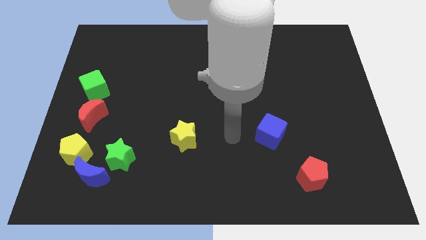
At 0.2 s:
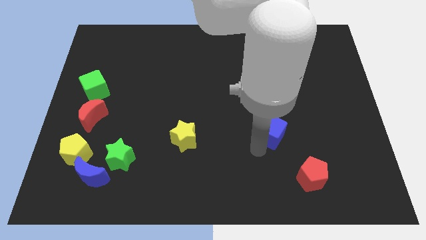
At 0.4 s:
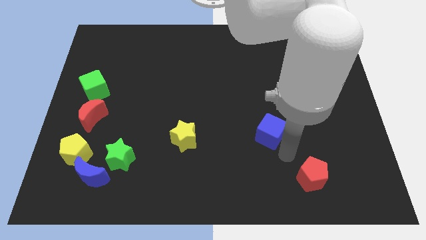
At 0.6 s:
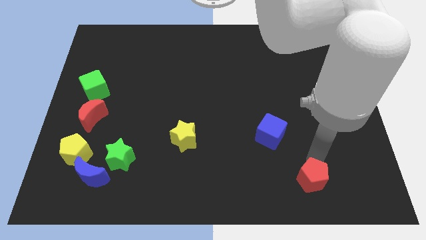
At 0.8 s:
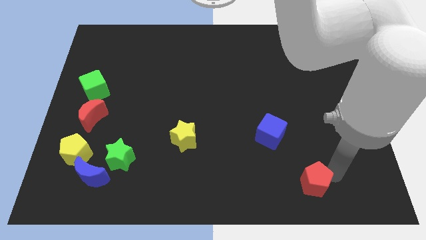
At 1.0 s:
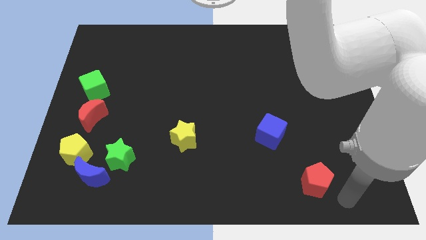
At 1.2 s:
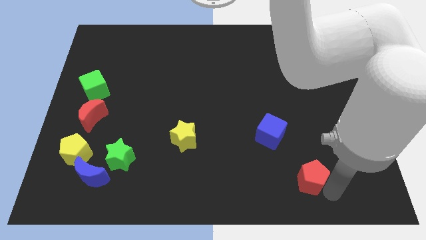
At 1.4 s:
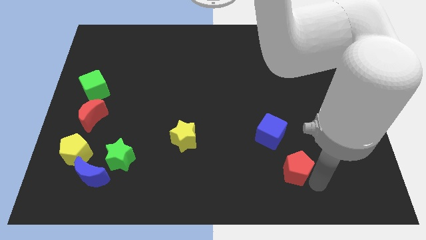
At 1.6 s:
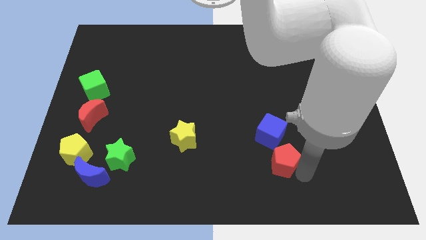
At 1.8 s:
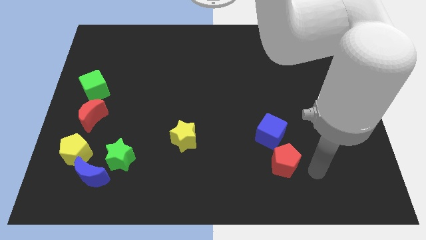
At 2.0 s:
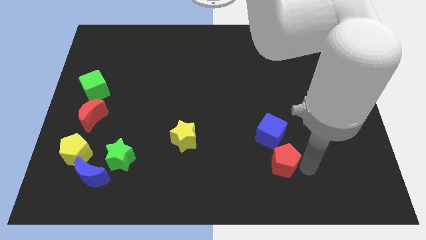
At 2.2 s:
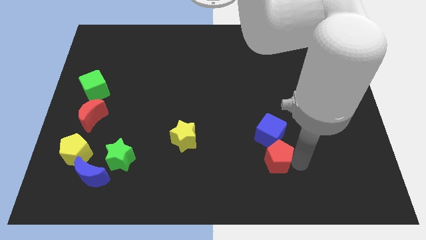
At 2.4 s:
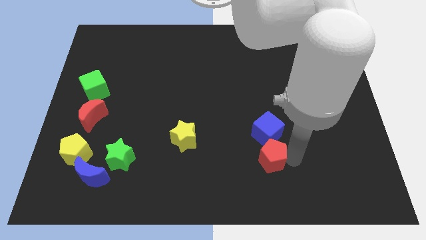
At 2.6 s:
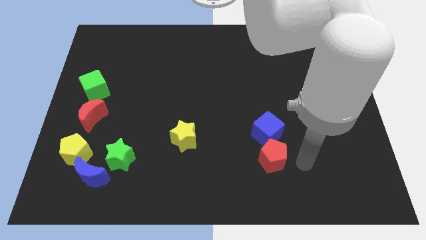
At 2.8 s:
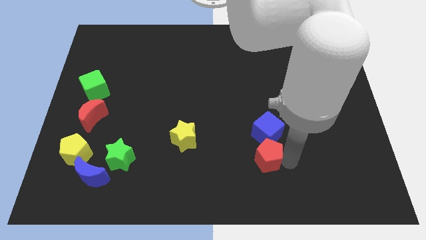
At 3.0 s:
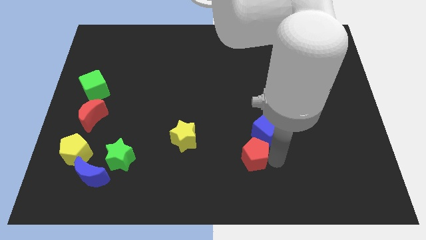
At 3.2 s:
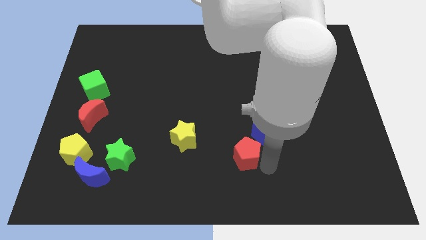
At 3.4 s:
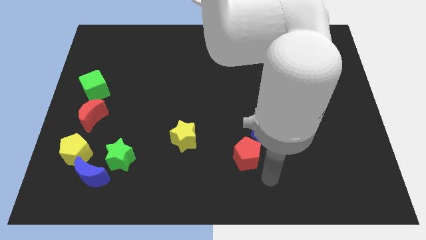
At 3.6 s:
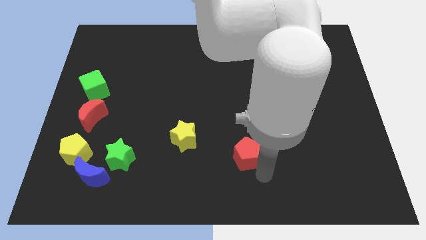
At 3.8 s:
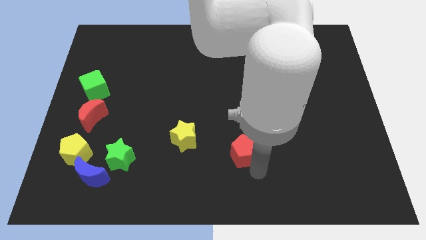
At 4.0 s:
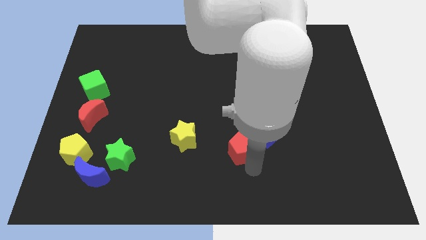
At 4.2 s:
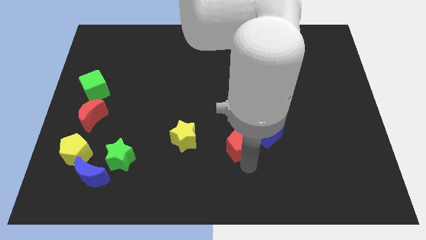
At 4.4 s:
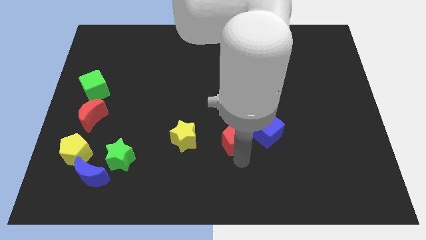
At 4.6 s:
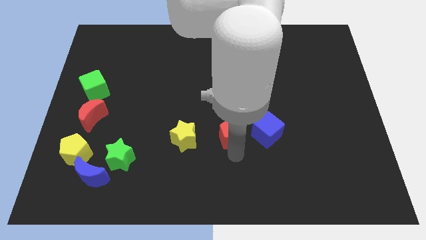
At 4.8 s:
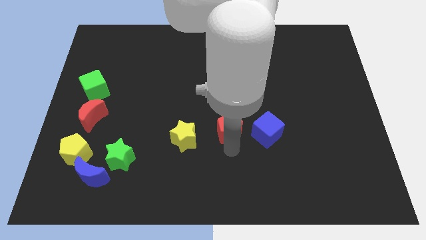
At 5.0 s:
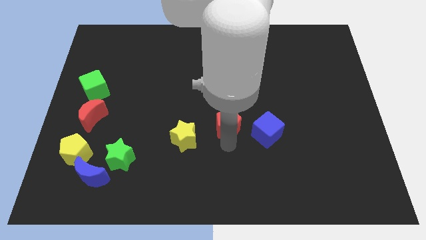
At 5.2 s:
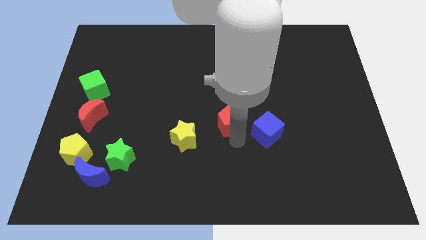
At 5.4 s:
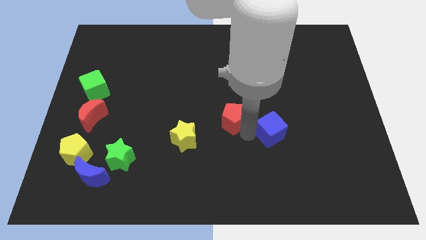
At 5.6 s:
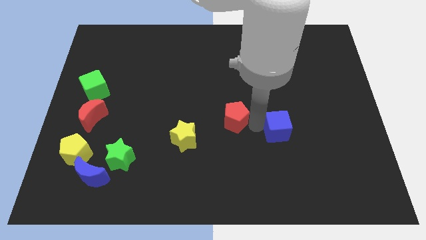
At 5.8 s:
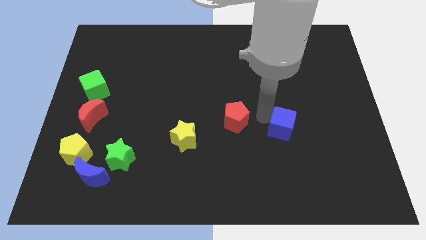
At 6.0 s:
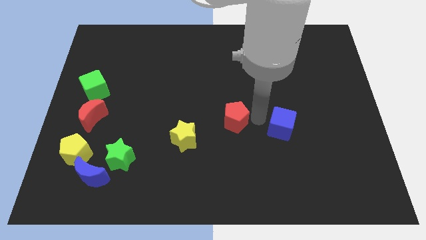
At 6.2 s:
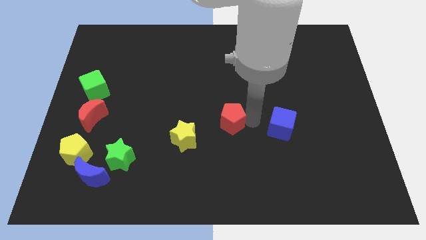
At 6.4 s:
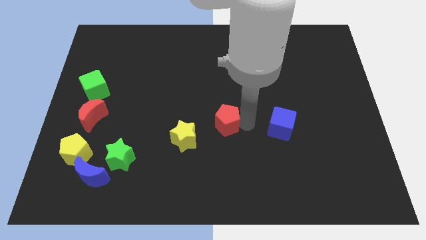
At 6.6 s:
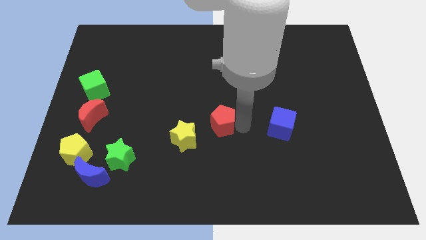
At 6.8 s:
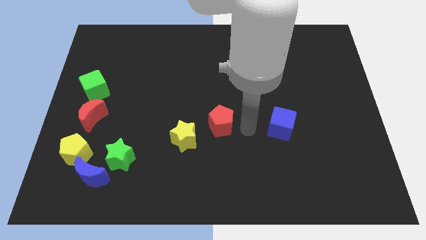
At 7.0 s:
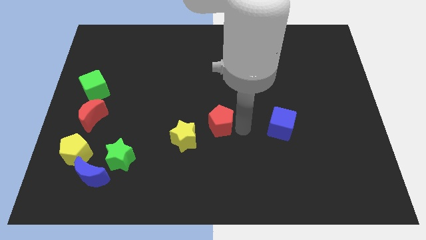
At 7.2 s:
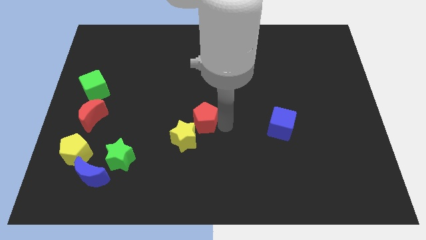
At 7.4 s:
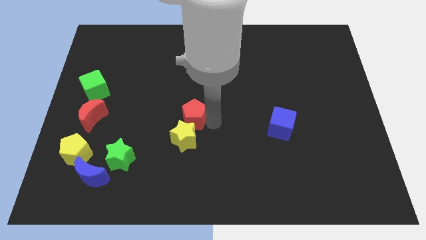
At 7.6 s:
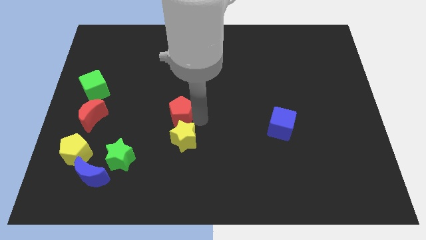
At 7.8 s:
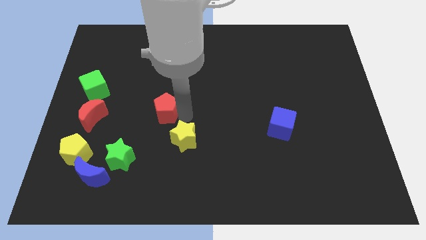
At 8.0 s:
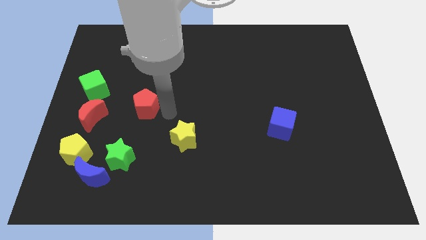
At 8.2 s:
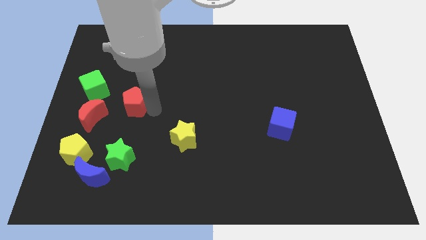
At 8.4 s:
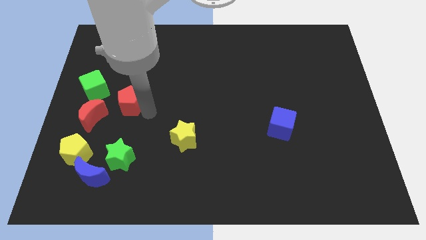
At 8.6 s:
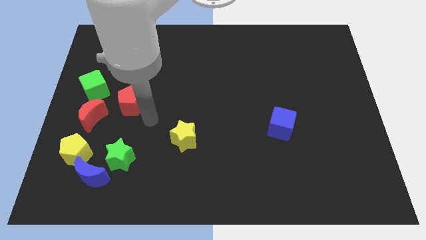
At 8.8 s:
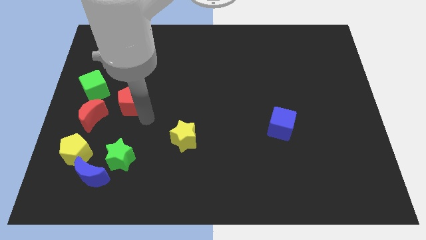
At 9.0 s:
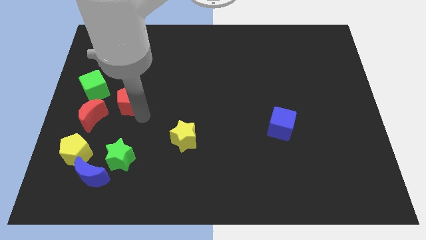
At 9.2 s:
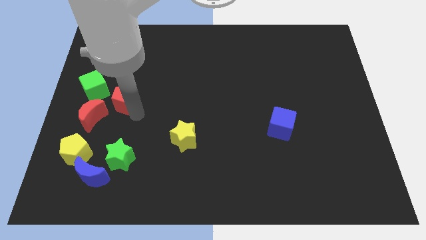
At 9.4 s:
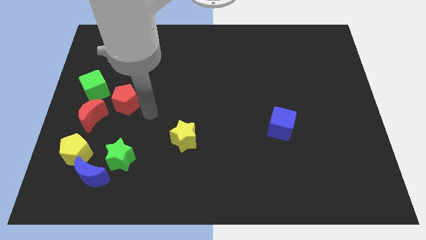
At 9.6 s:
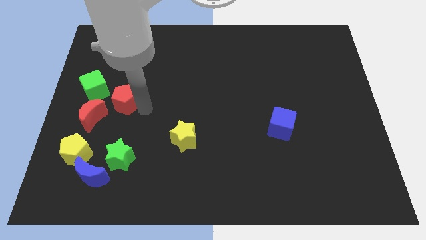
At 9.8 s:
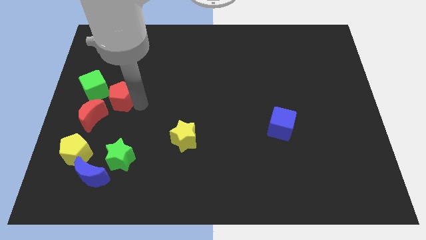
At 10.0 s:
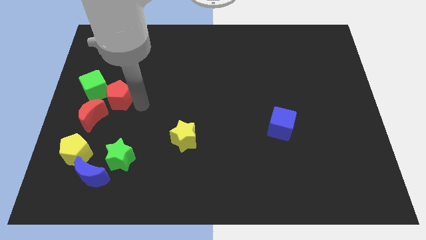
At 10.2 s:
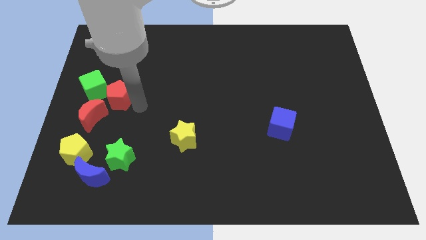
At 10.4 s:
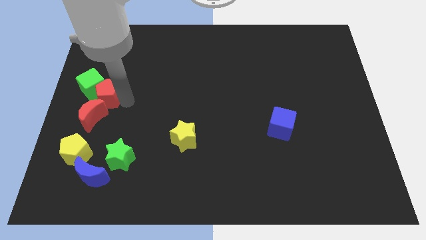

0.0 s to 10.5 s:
push the red pentagon towards the green cube
